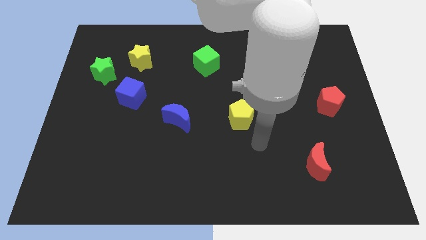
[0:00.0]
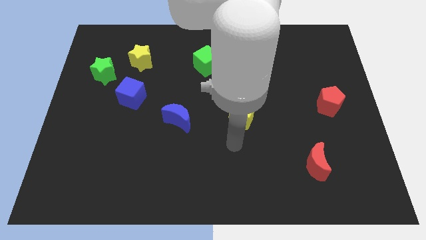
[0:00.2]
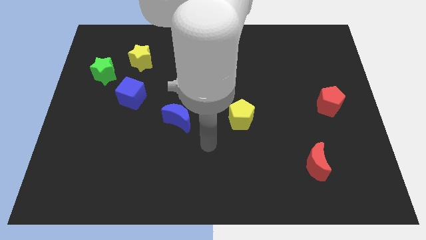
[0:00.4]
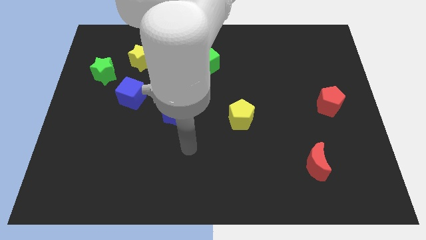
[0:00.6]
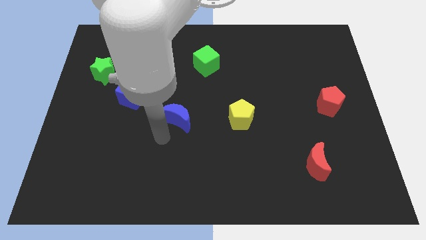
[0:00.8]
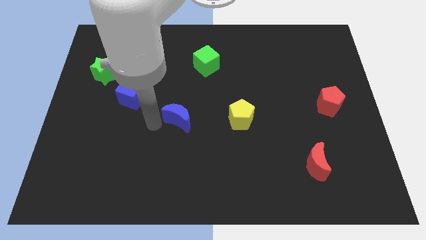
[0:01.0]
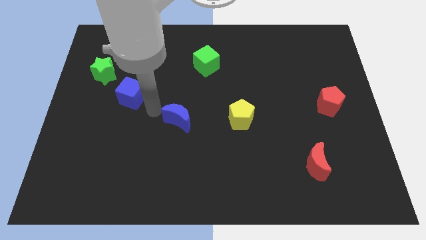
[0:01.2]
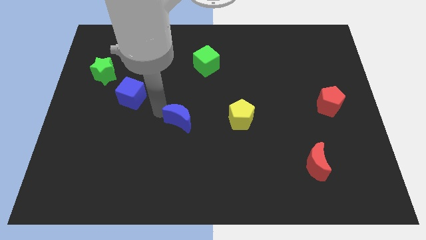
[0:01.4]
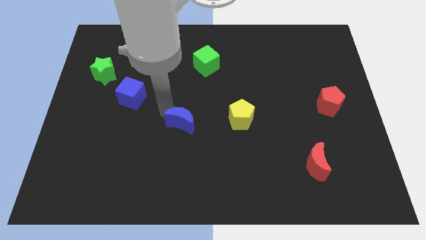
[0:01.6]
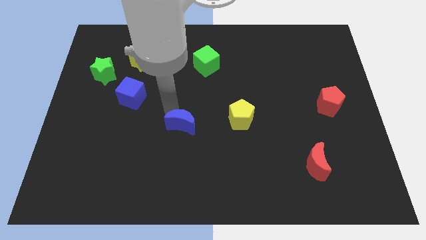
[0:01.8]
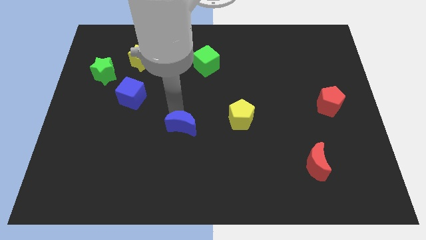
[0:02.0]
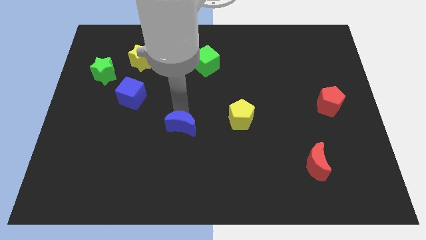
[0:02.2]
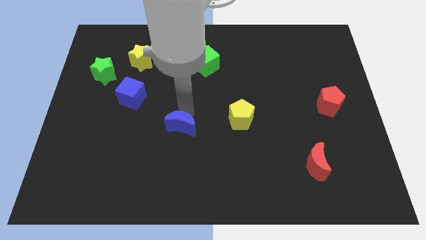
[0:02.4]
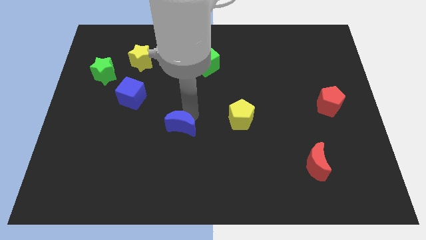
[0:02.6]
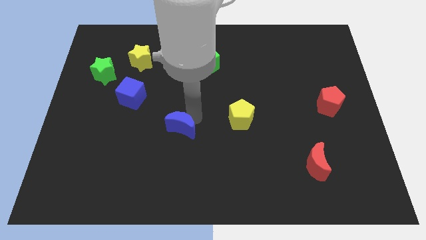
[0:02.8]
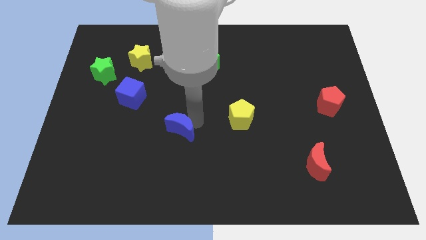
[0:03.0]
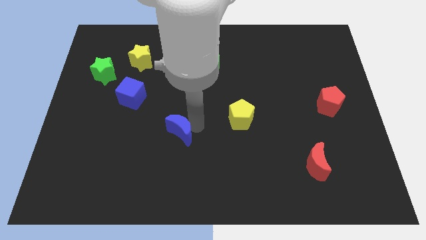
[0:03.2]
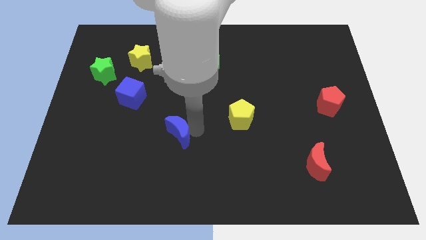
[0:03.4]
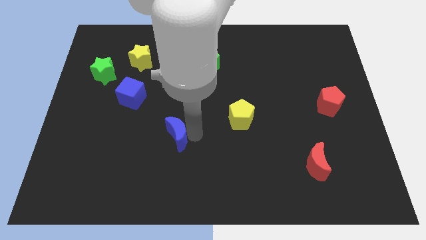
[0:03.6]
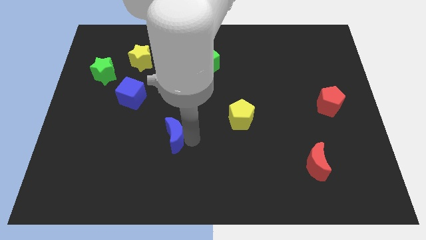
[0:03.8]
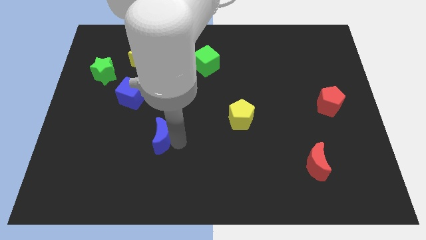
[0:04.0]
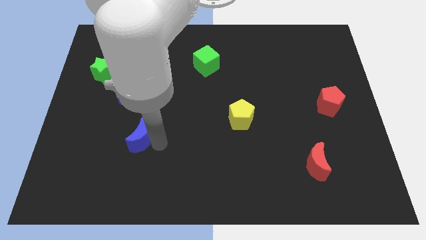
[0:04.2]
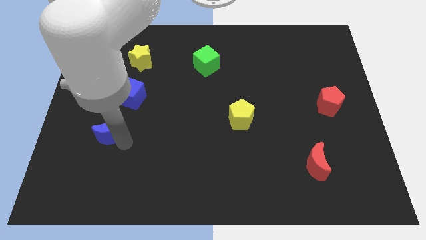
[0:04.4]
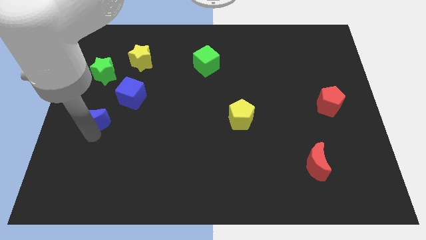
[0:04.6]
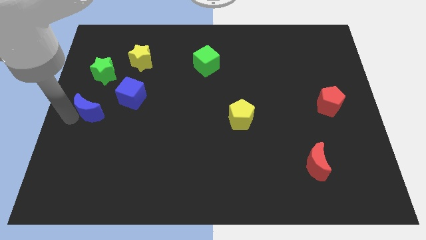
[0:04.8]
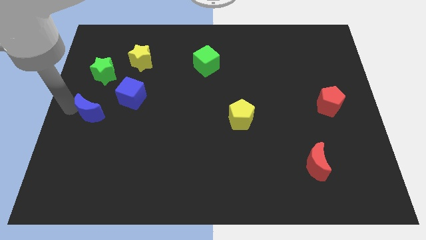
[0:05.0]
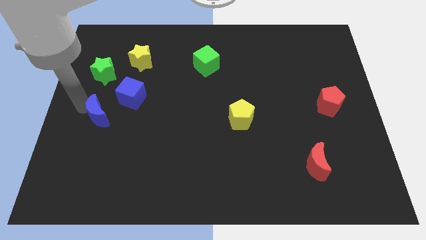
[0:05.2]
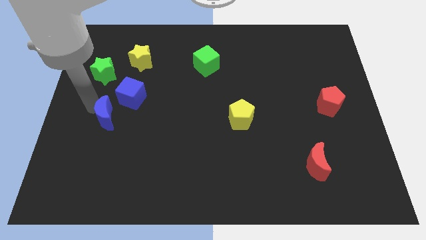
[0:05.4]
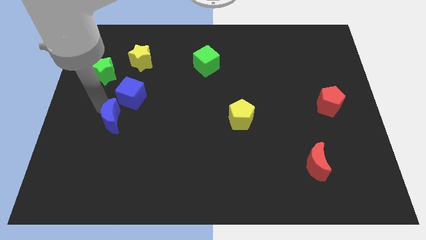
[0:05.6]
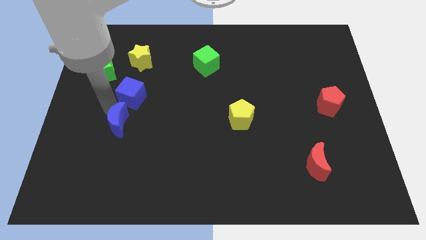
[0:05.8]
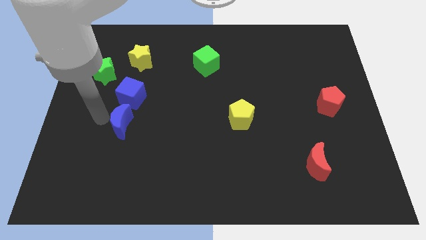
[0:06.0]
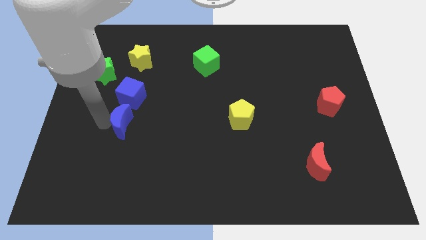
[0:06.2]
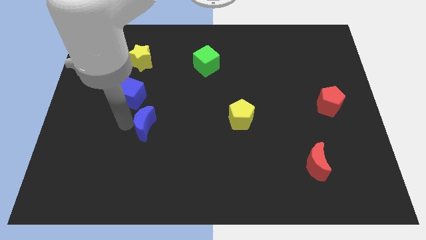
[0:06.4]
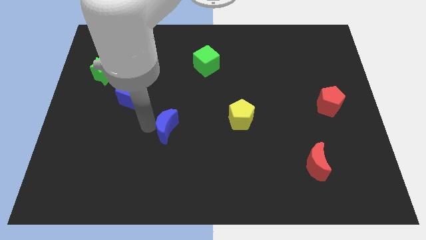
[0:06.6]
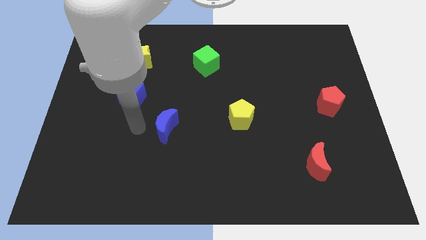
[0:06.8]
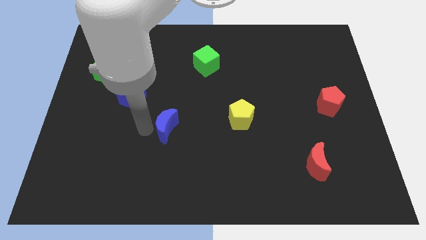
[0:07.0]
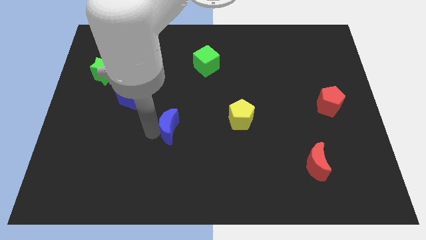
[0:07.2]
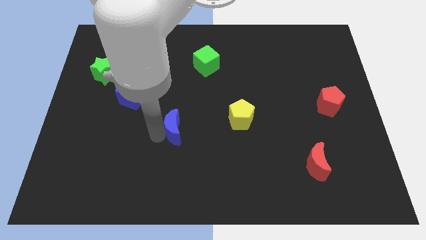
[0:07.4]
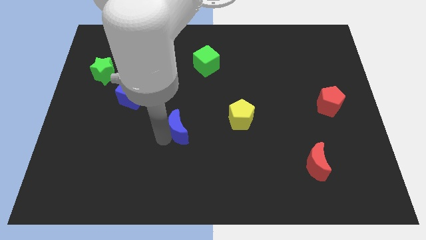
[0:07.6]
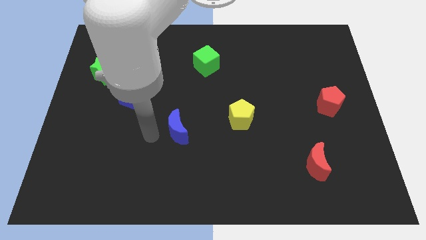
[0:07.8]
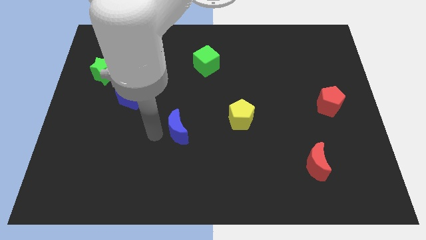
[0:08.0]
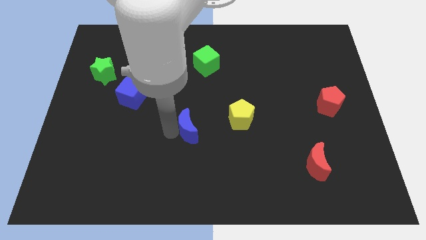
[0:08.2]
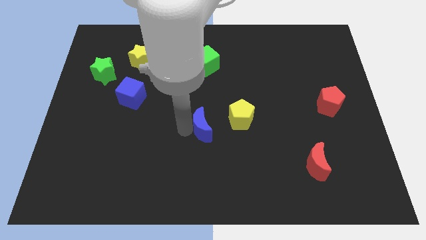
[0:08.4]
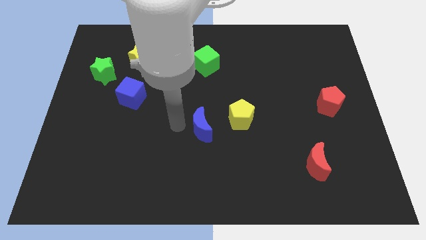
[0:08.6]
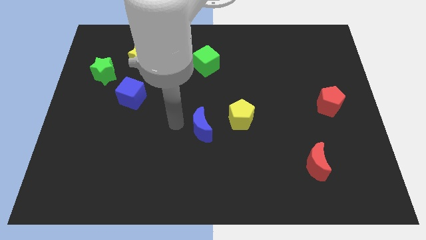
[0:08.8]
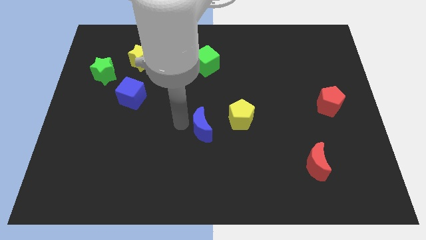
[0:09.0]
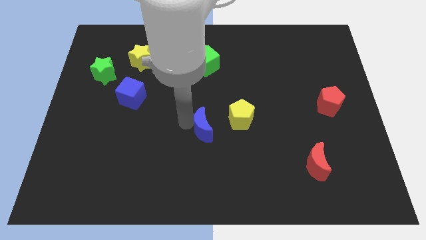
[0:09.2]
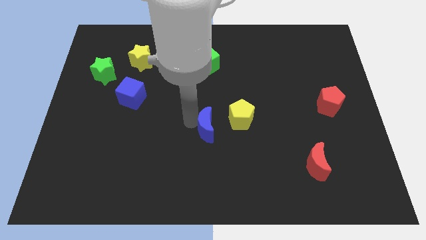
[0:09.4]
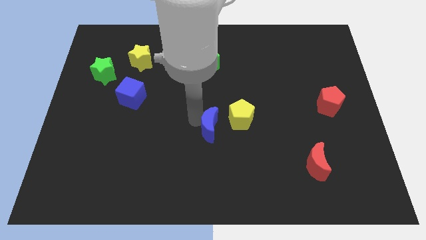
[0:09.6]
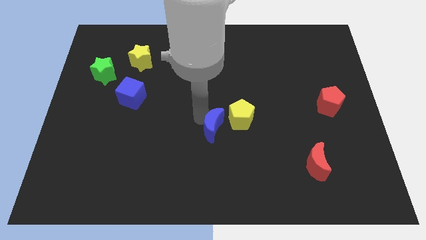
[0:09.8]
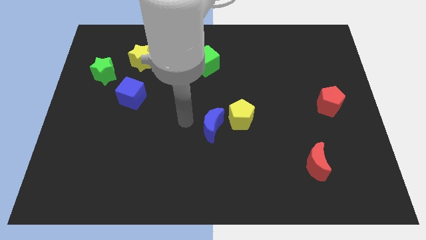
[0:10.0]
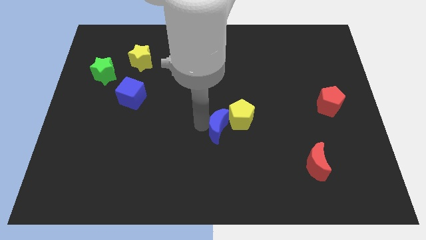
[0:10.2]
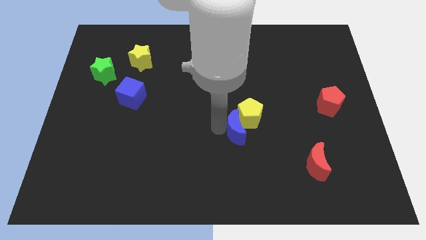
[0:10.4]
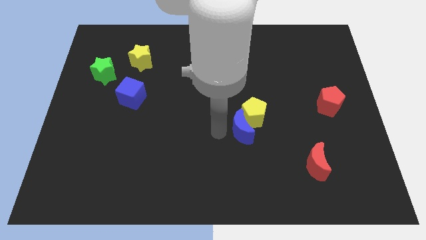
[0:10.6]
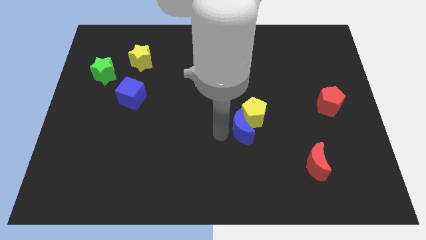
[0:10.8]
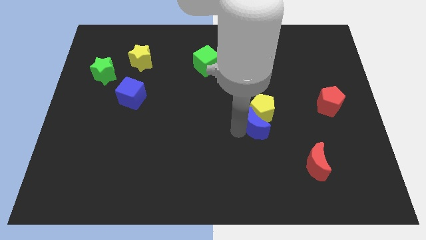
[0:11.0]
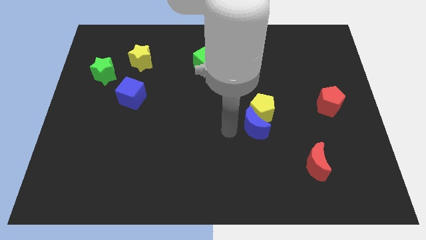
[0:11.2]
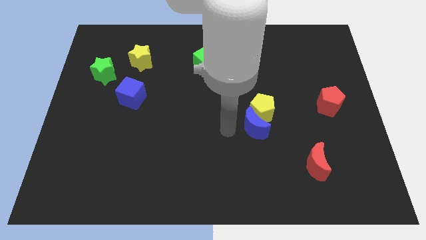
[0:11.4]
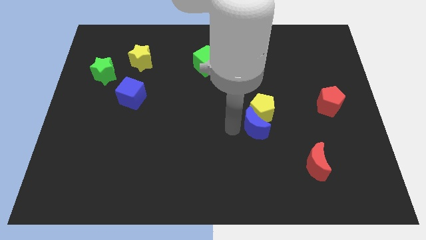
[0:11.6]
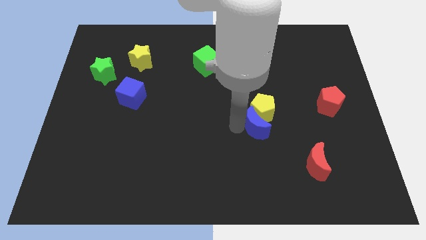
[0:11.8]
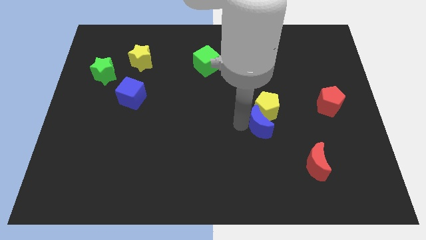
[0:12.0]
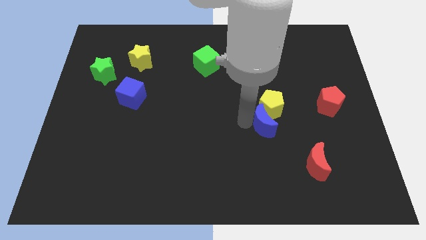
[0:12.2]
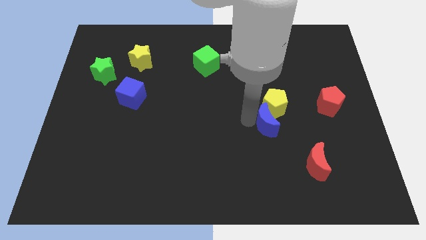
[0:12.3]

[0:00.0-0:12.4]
slide the blue moon right

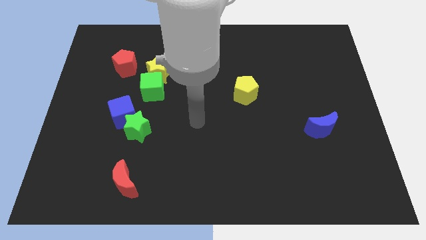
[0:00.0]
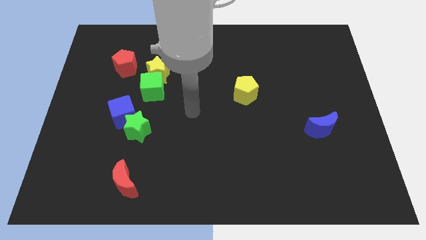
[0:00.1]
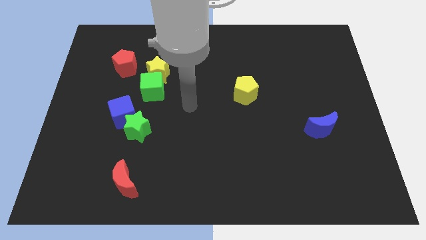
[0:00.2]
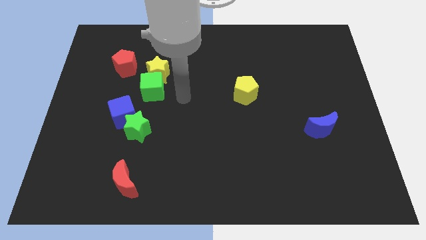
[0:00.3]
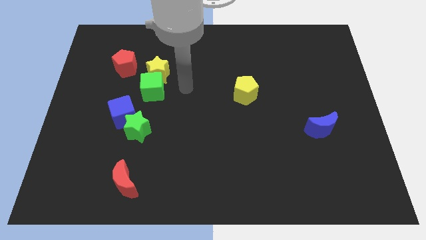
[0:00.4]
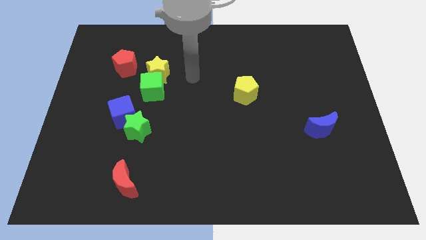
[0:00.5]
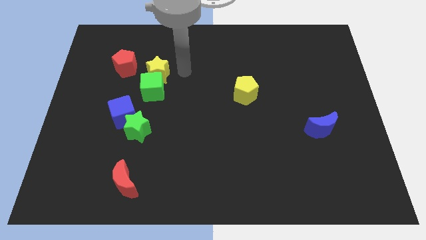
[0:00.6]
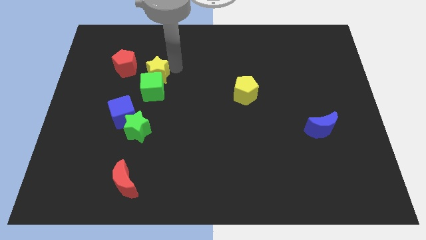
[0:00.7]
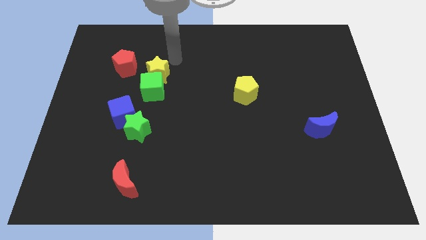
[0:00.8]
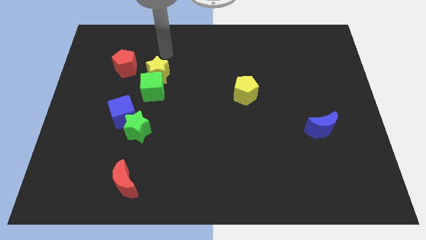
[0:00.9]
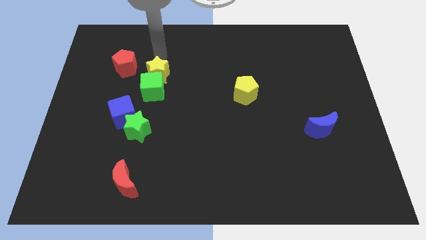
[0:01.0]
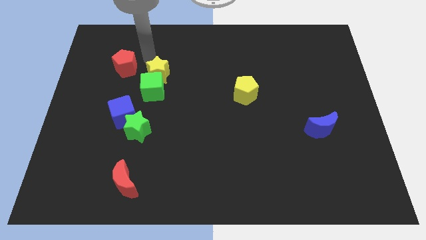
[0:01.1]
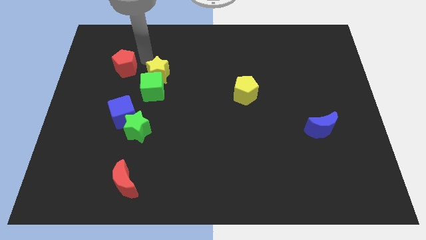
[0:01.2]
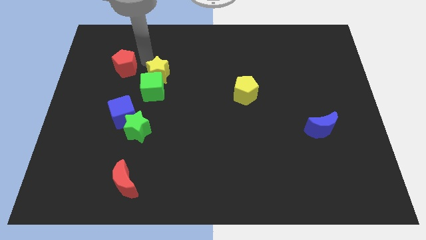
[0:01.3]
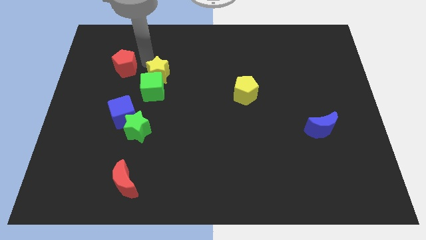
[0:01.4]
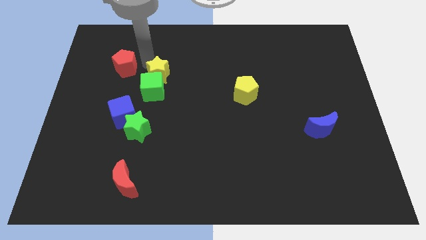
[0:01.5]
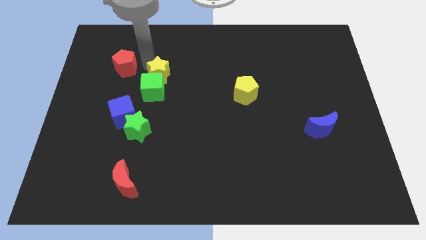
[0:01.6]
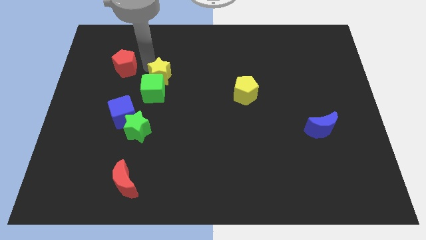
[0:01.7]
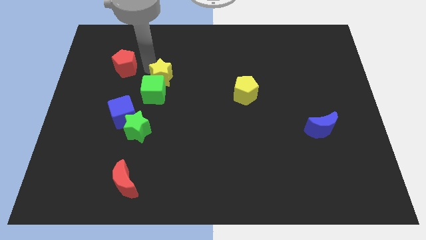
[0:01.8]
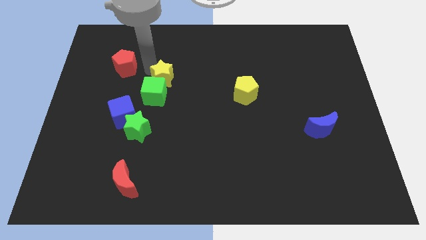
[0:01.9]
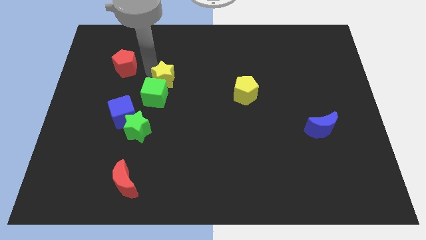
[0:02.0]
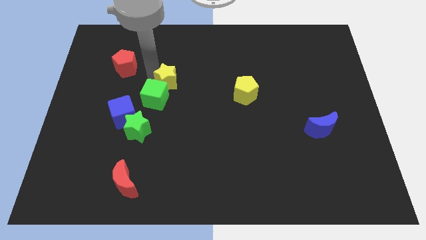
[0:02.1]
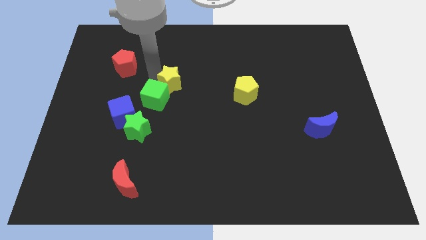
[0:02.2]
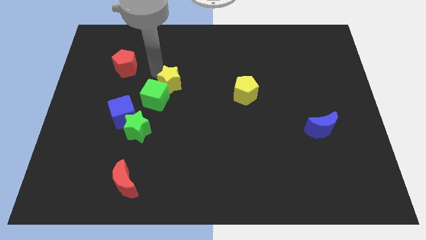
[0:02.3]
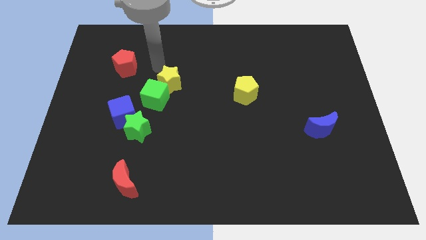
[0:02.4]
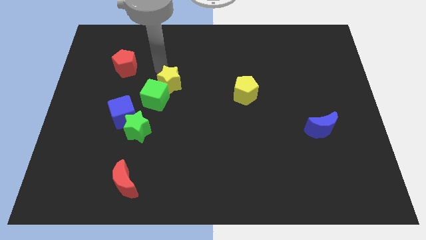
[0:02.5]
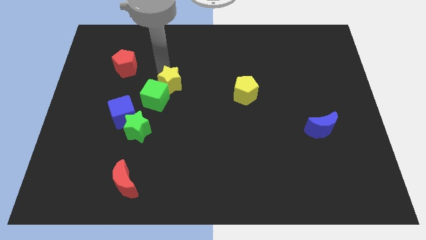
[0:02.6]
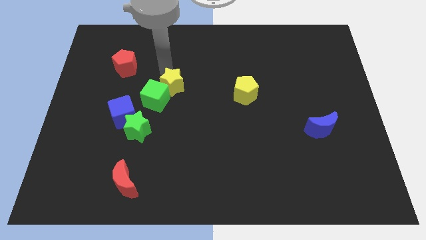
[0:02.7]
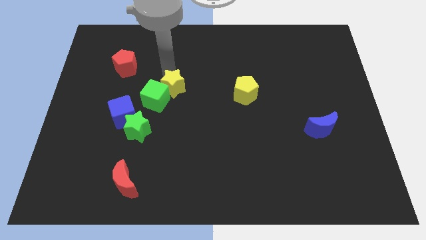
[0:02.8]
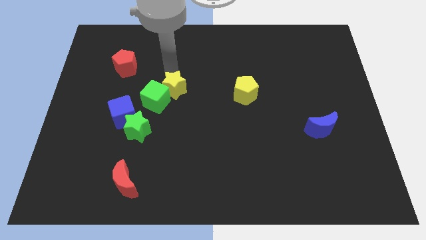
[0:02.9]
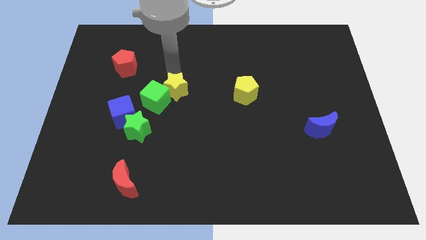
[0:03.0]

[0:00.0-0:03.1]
slightly move the yellow star down and then right
